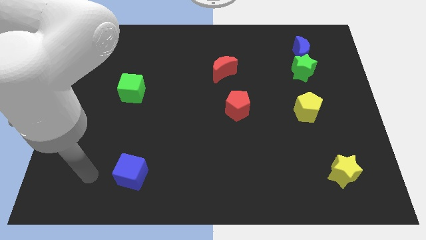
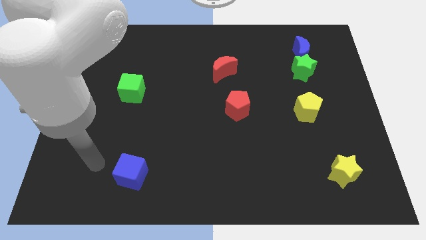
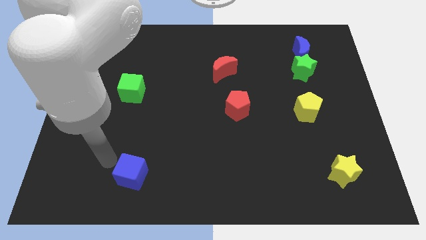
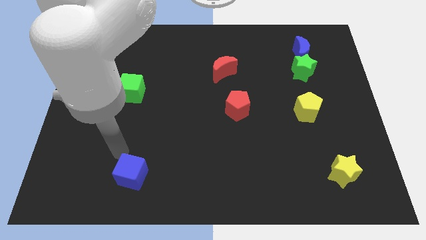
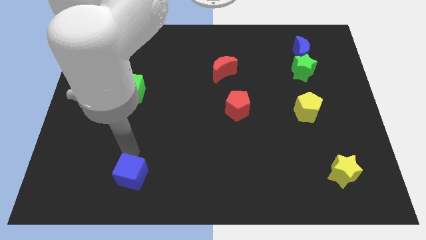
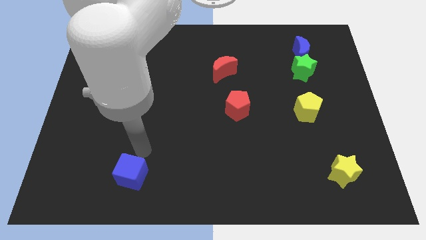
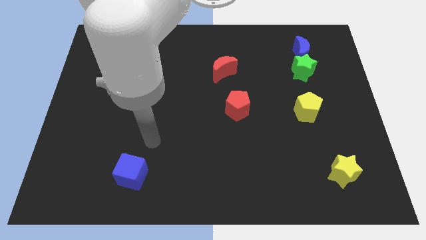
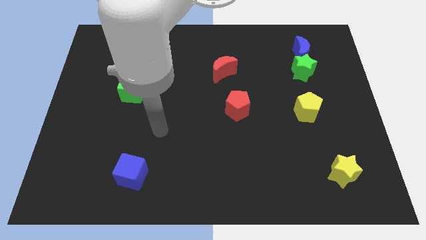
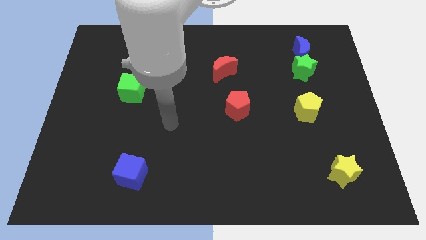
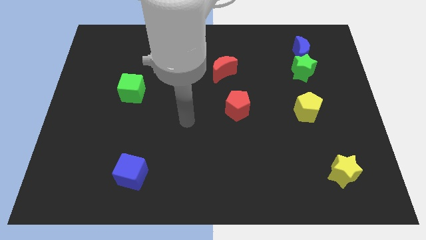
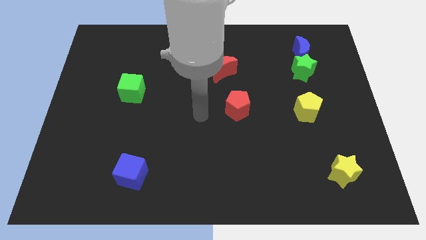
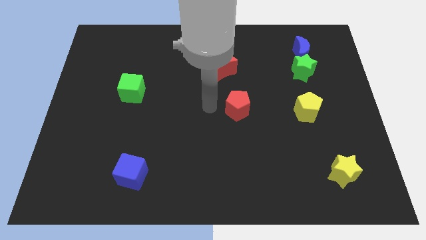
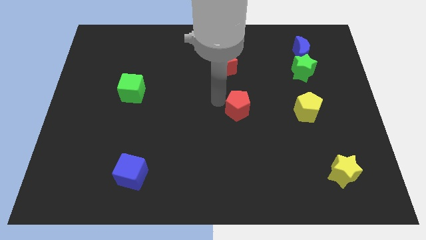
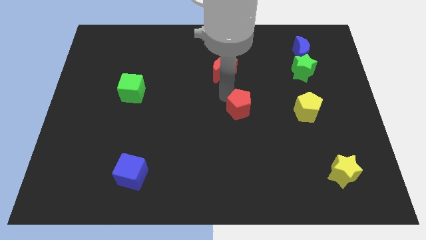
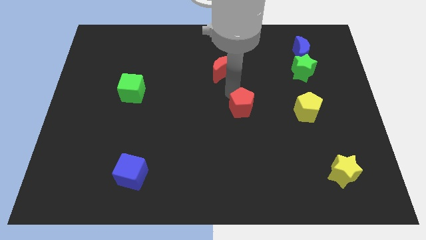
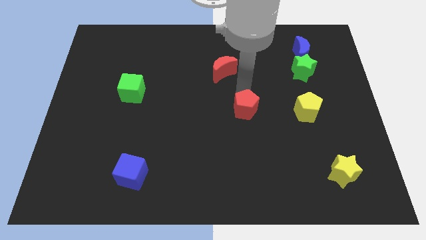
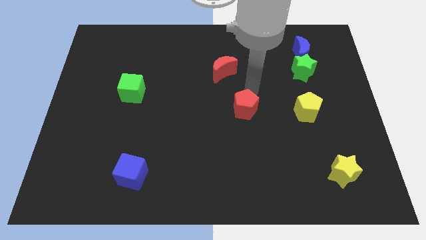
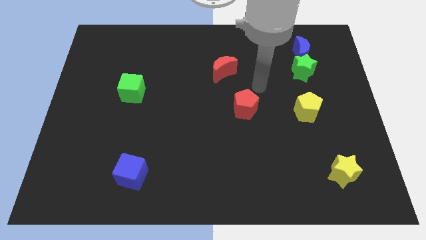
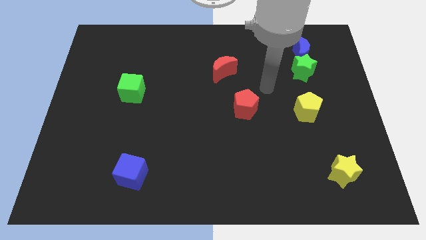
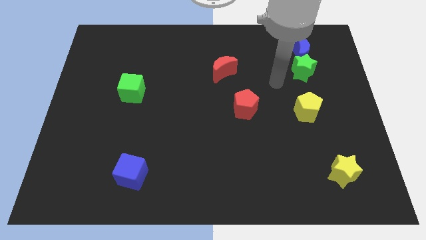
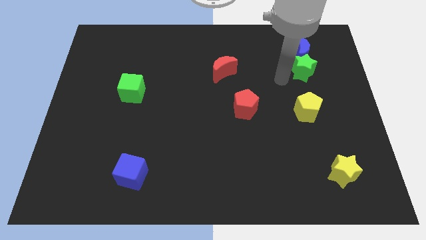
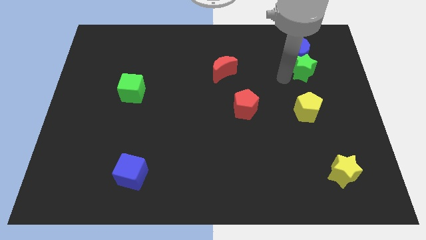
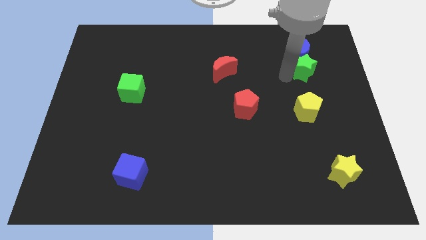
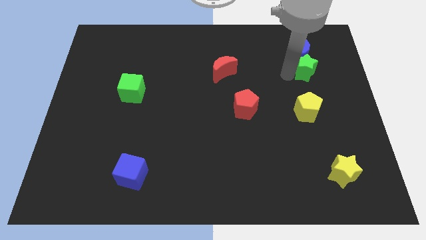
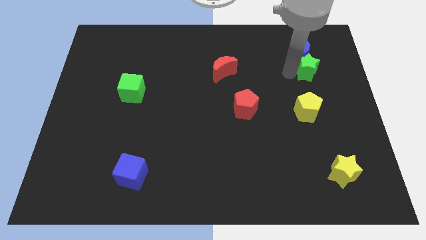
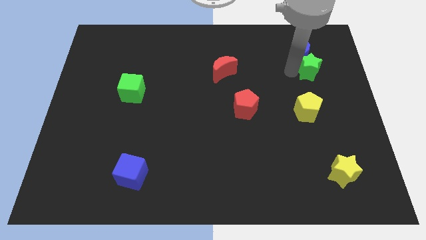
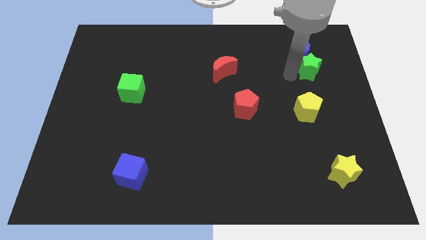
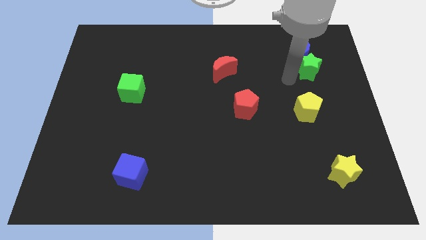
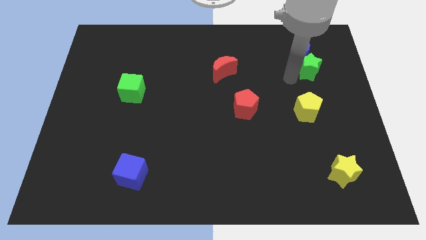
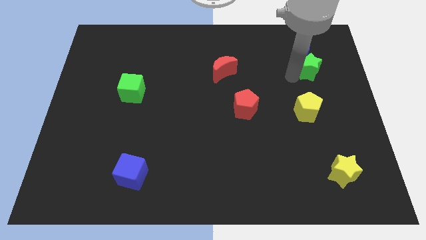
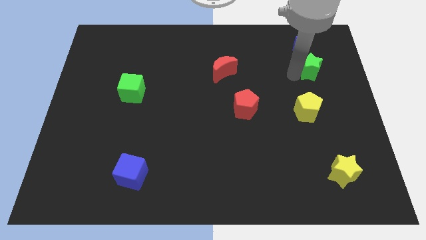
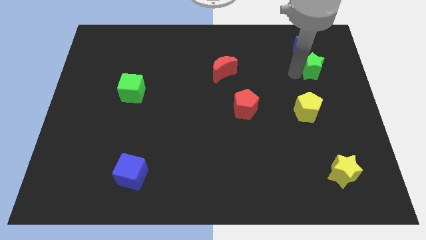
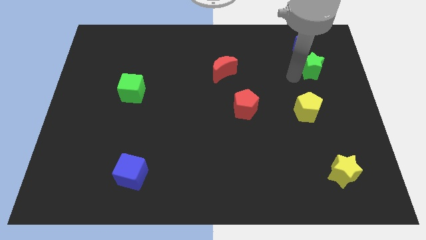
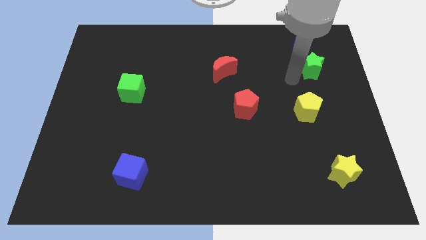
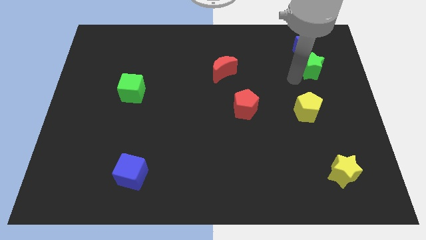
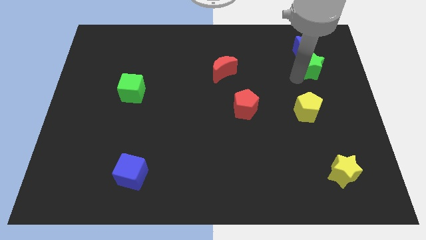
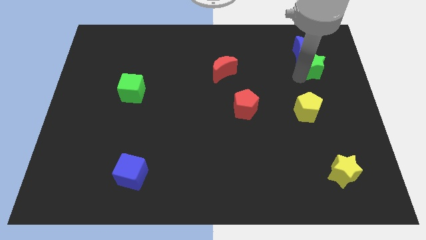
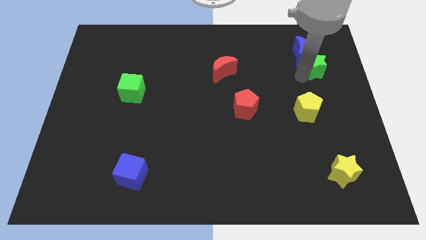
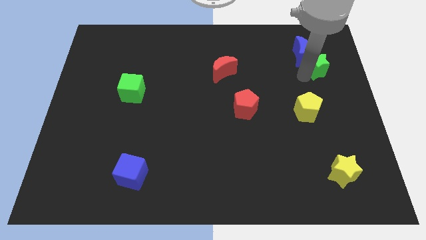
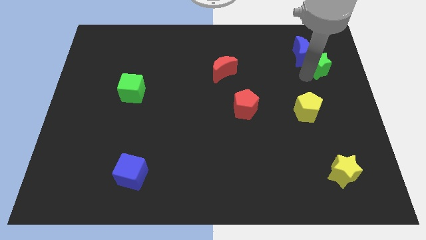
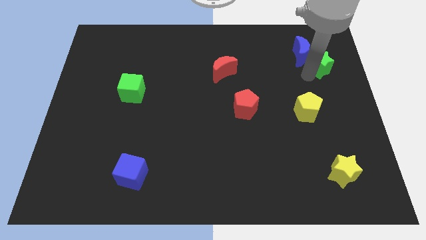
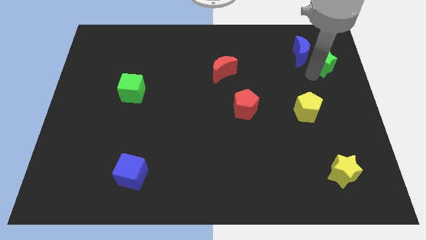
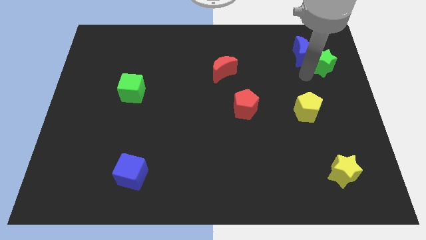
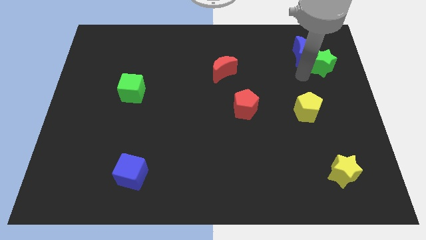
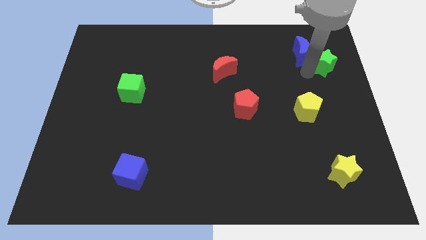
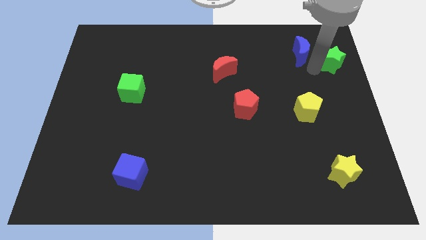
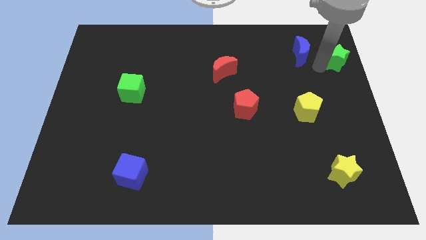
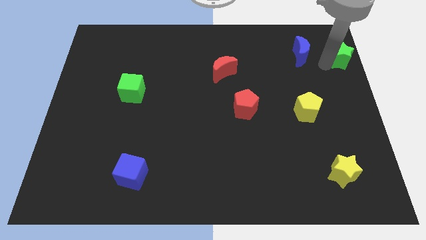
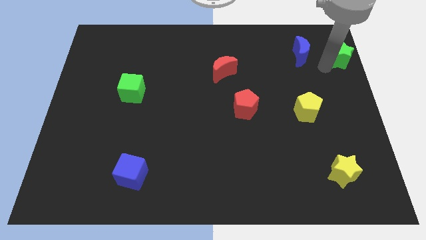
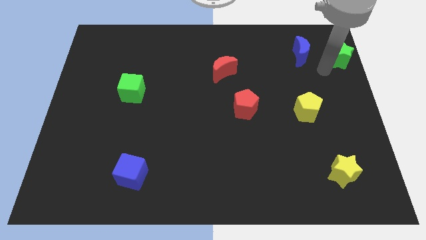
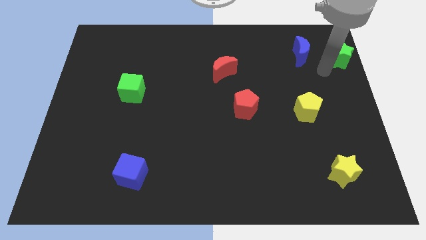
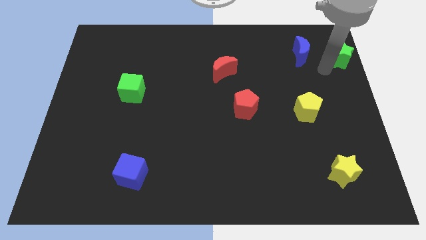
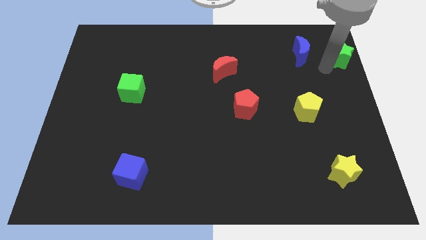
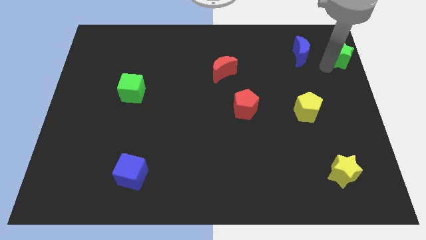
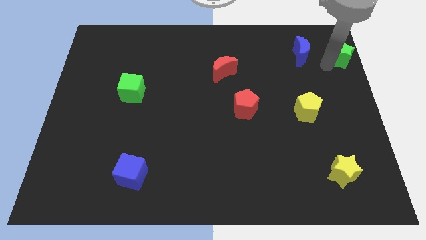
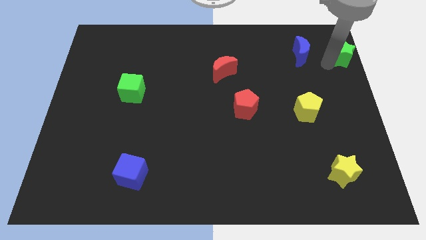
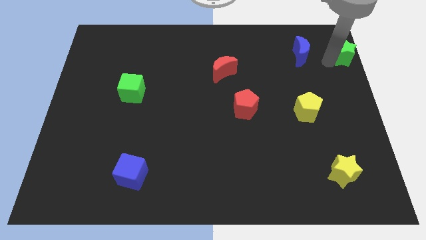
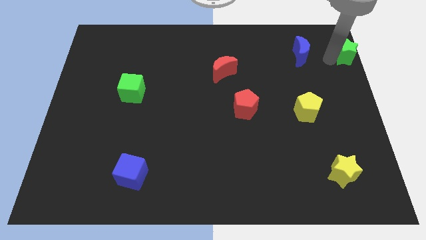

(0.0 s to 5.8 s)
push the green star to the top right corner

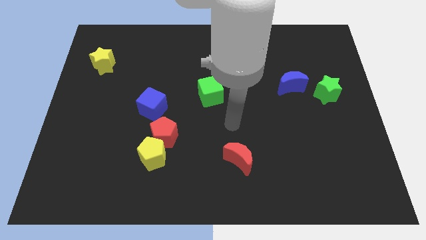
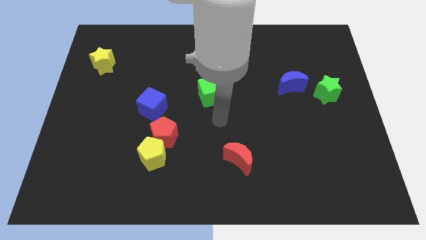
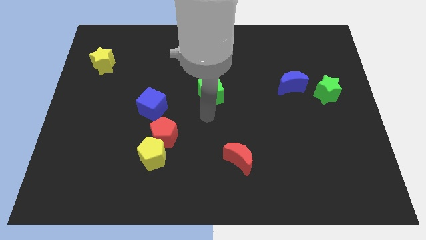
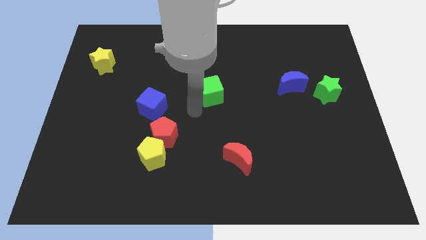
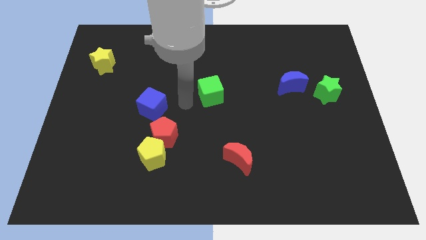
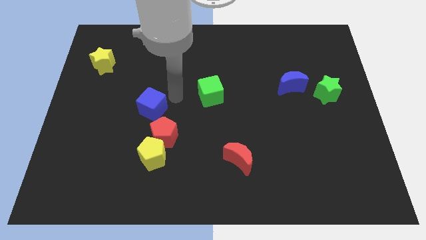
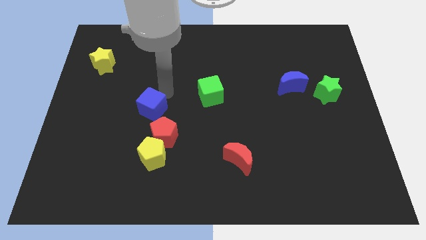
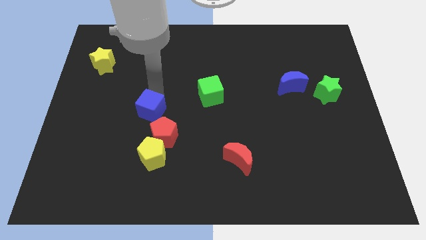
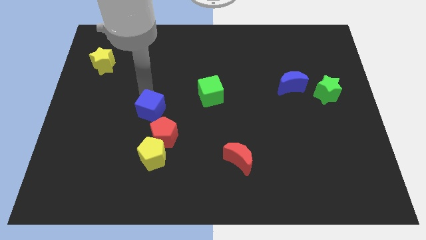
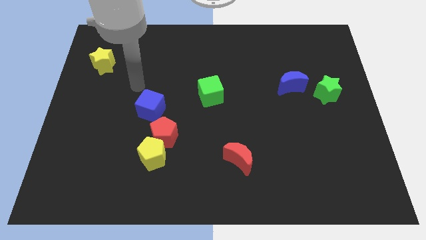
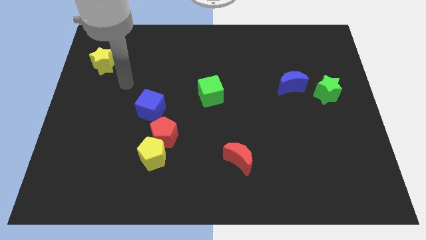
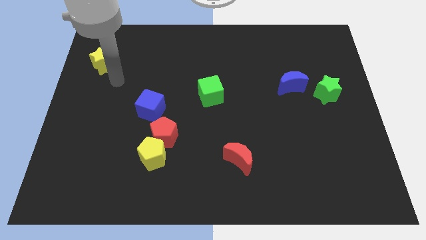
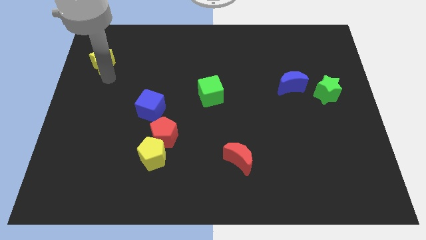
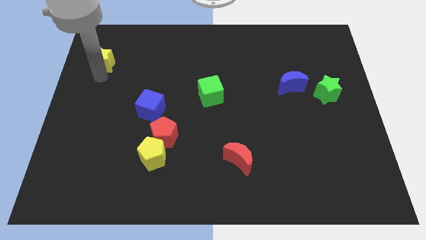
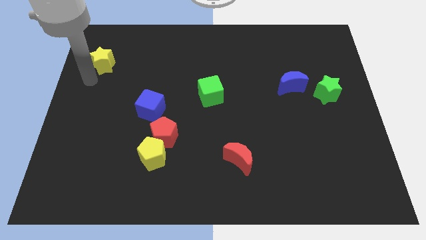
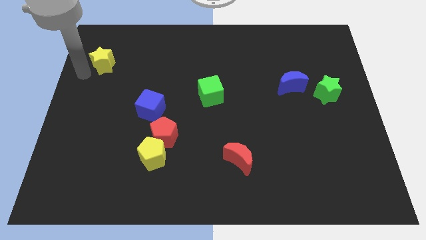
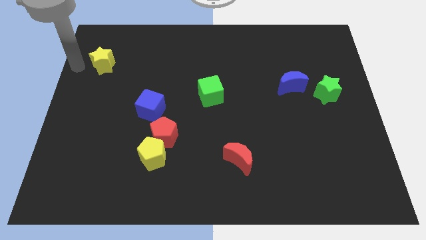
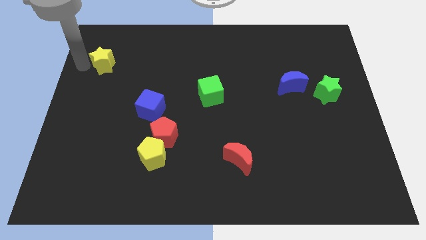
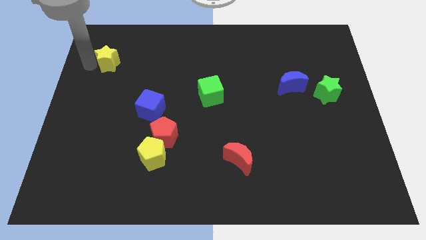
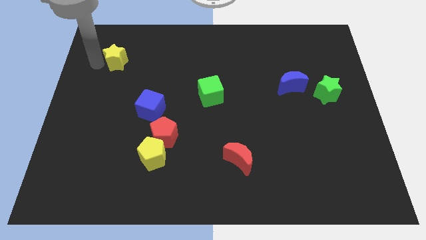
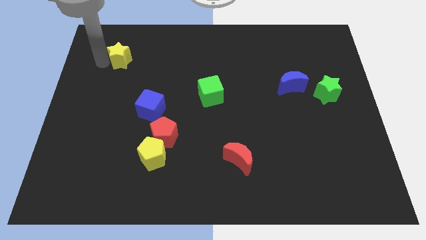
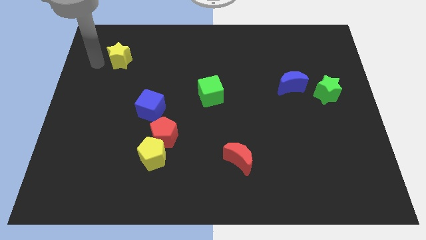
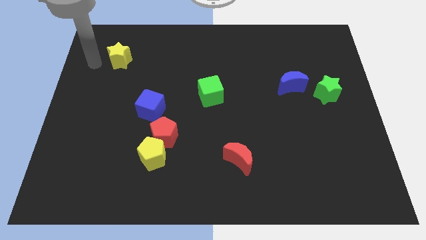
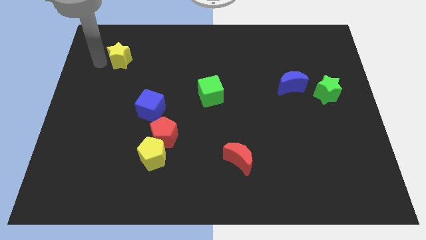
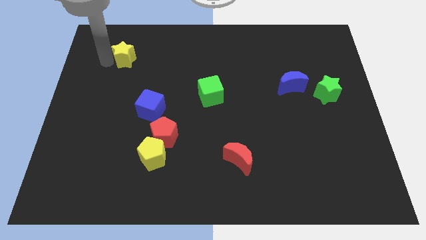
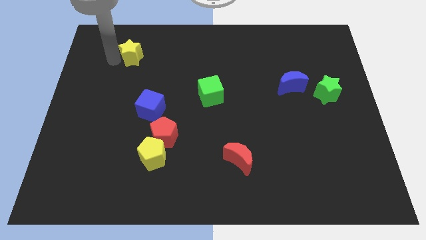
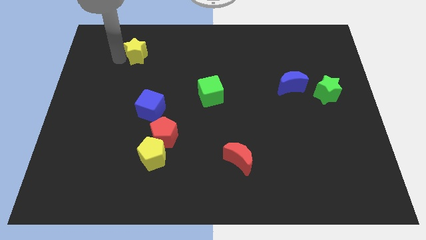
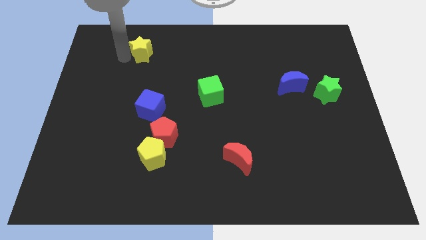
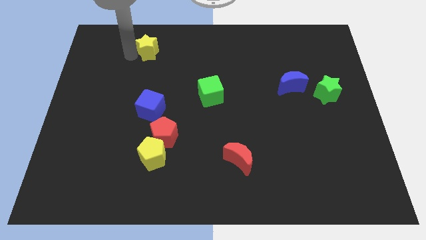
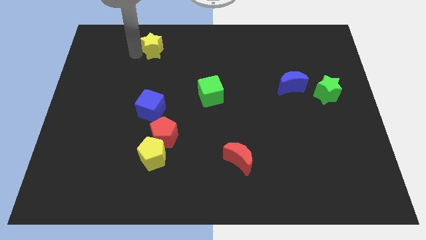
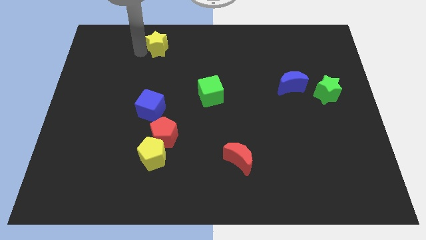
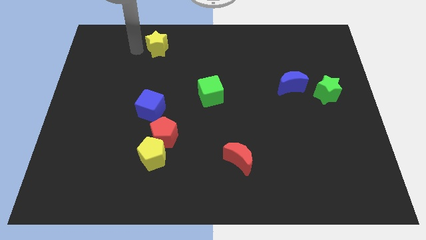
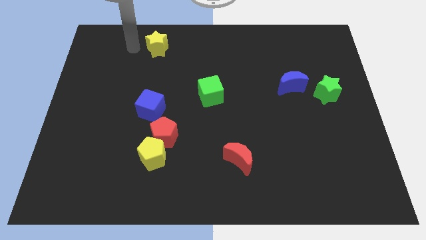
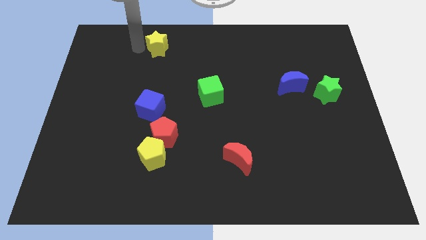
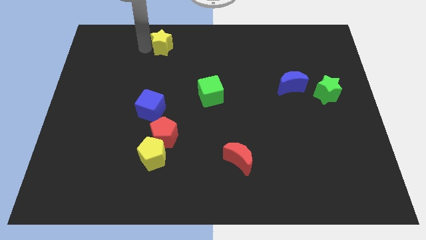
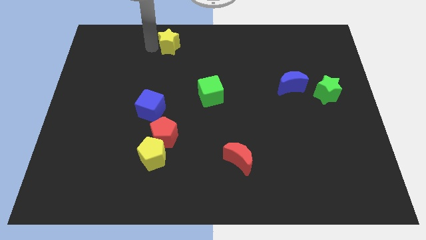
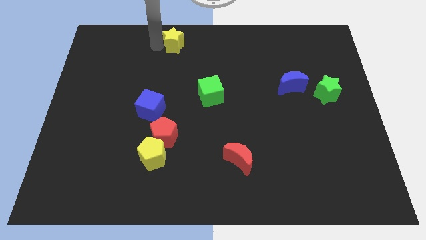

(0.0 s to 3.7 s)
move the yellow star to the top
